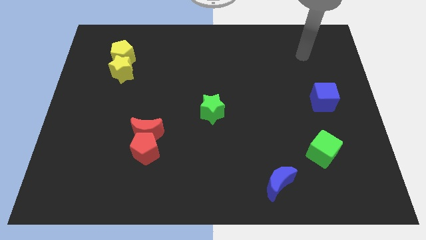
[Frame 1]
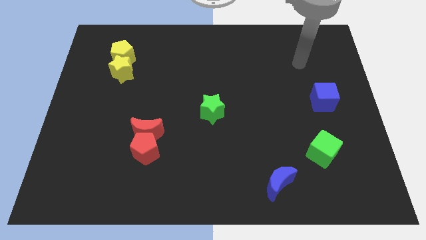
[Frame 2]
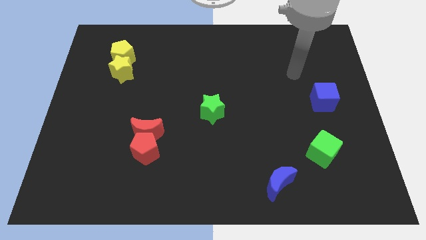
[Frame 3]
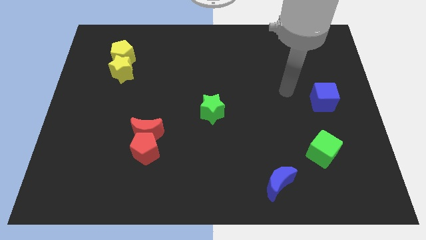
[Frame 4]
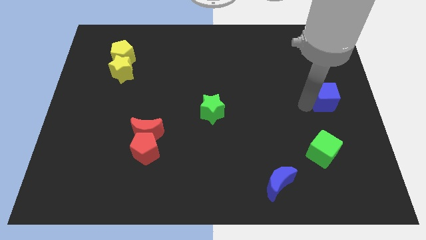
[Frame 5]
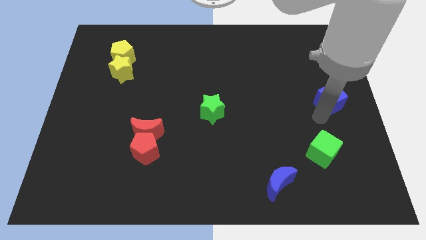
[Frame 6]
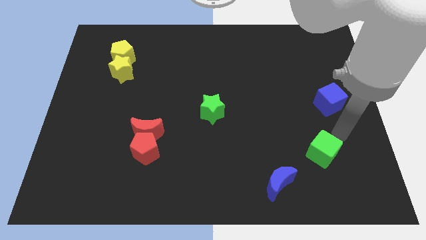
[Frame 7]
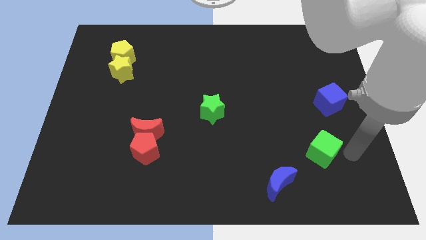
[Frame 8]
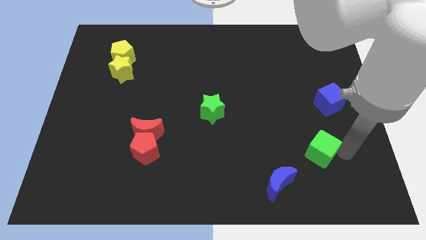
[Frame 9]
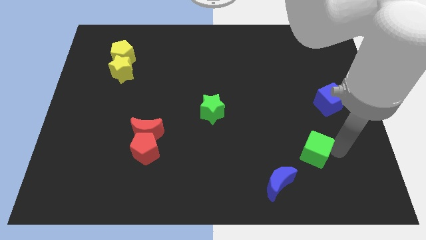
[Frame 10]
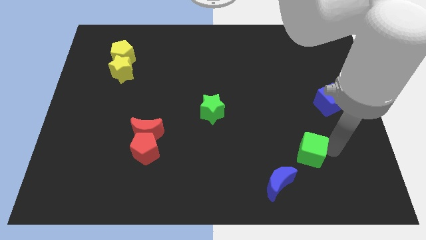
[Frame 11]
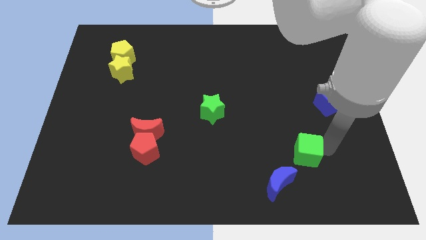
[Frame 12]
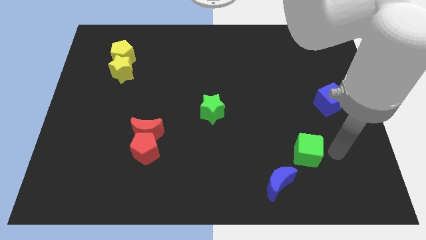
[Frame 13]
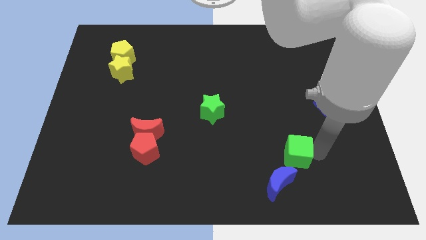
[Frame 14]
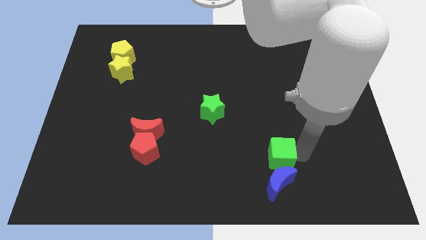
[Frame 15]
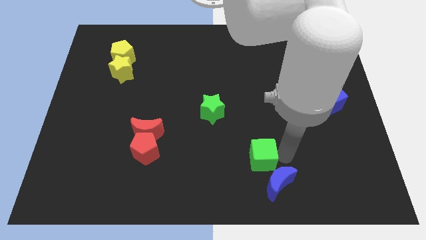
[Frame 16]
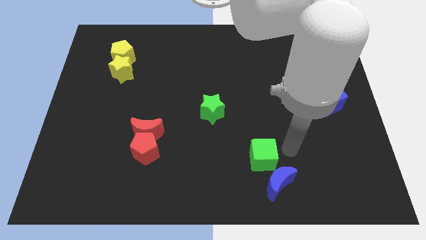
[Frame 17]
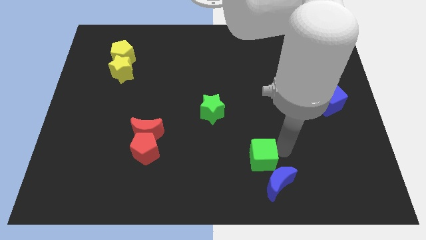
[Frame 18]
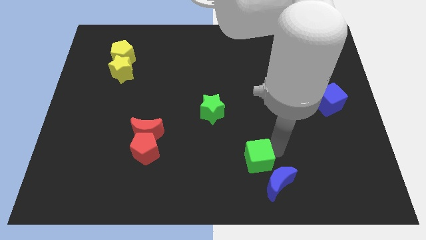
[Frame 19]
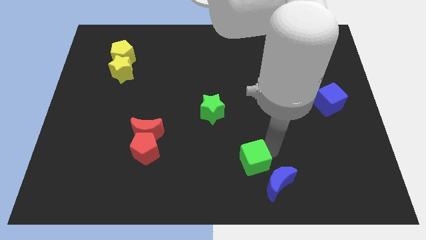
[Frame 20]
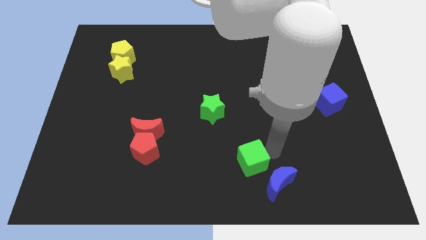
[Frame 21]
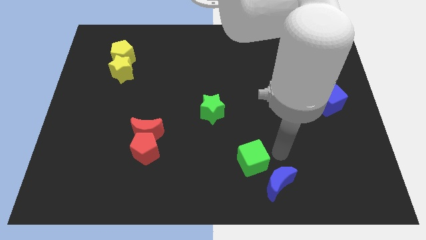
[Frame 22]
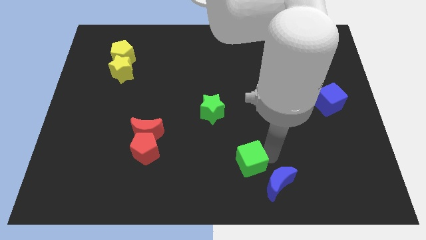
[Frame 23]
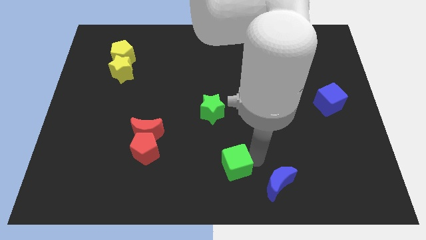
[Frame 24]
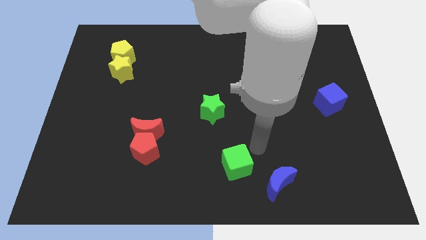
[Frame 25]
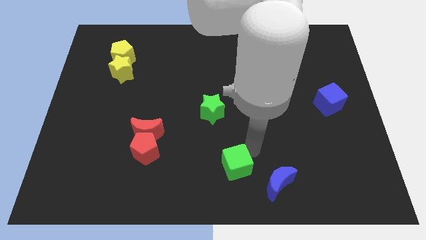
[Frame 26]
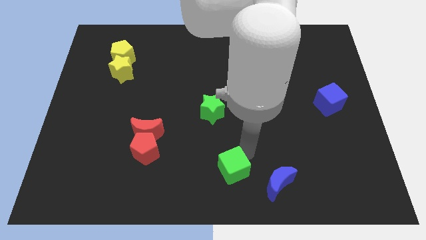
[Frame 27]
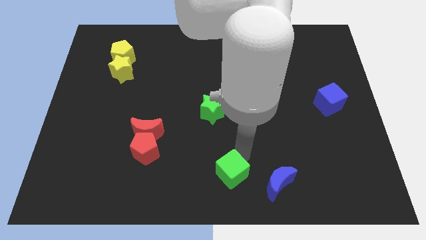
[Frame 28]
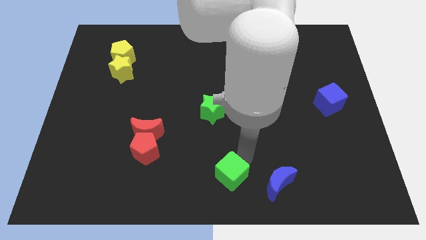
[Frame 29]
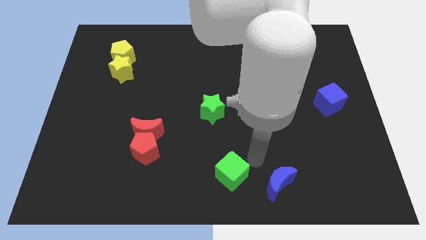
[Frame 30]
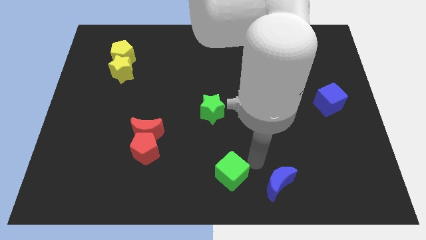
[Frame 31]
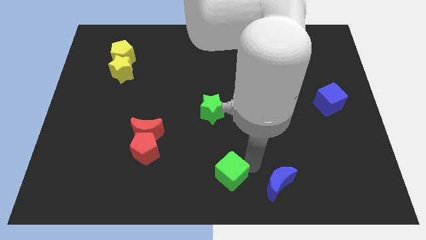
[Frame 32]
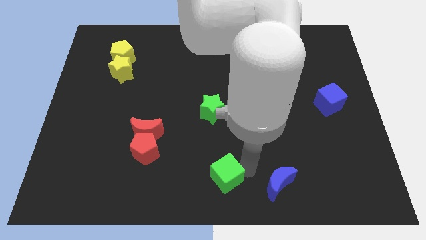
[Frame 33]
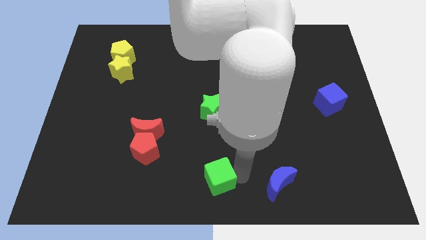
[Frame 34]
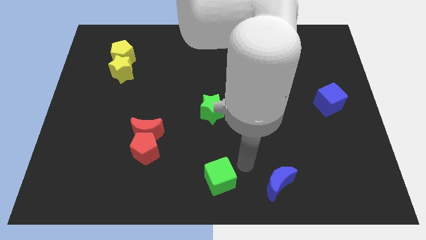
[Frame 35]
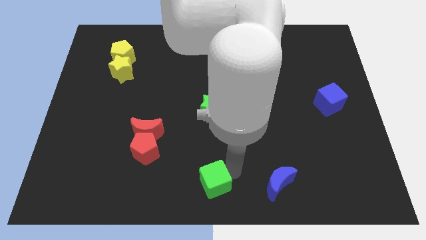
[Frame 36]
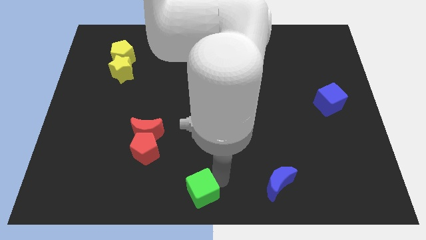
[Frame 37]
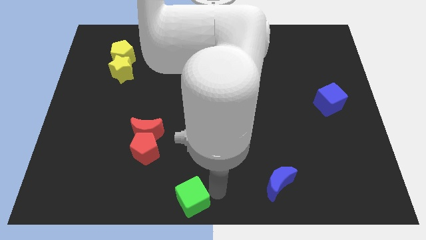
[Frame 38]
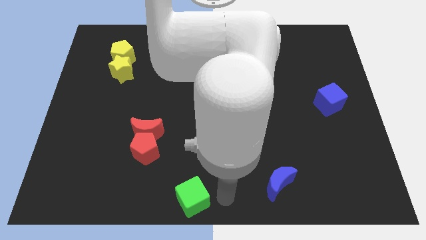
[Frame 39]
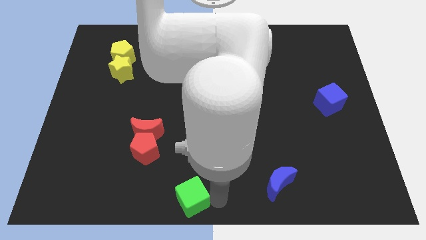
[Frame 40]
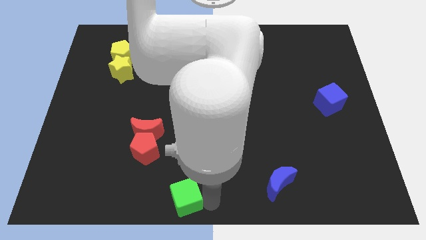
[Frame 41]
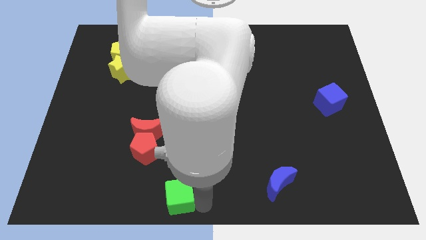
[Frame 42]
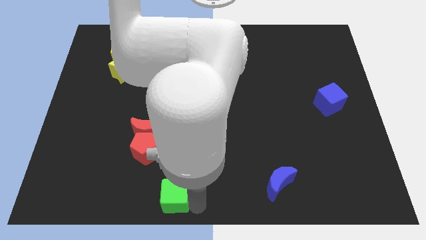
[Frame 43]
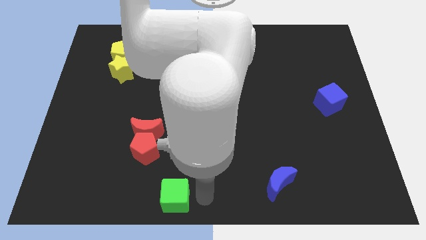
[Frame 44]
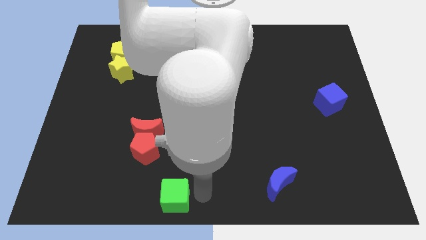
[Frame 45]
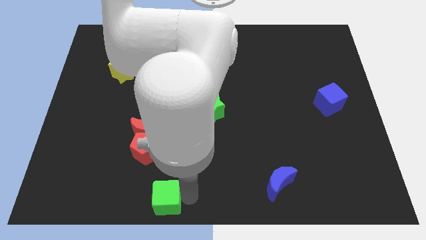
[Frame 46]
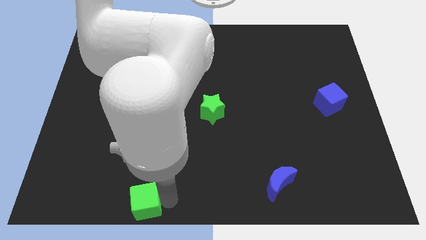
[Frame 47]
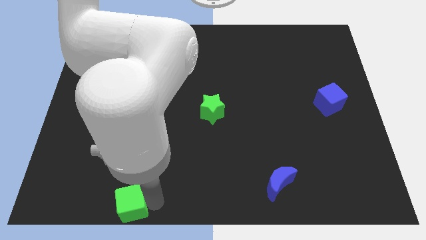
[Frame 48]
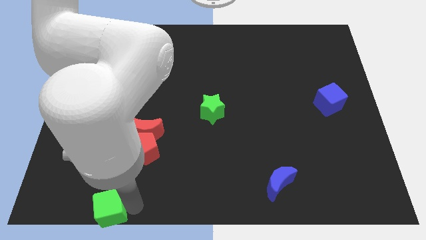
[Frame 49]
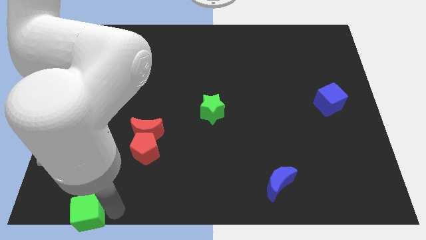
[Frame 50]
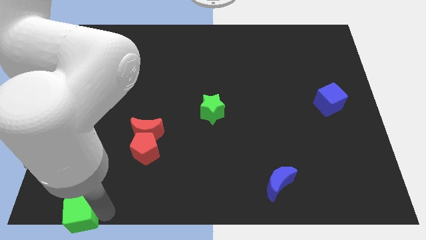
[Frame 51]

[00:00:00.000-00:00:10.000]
push the green cube to the lower left corner

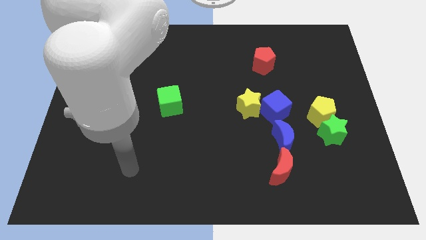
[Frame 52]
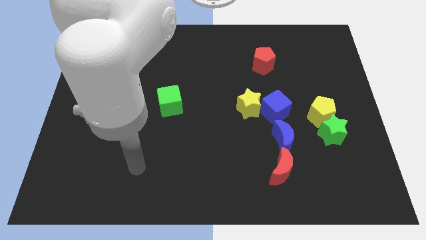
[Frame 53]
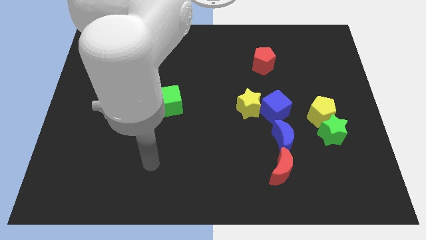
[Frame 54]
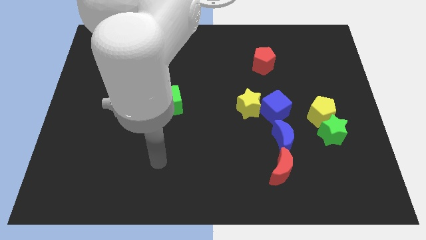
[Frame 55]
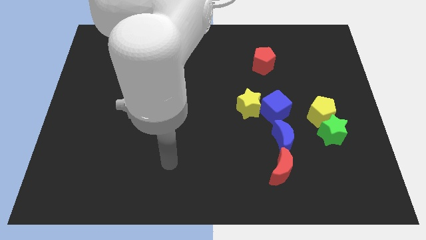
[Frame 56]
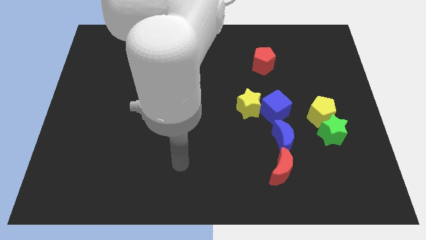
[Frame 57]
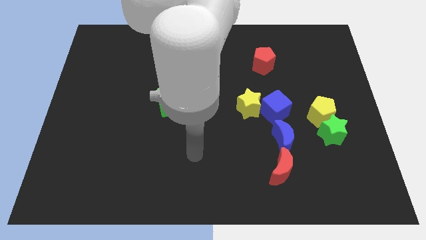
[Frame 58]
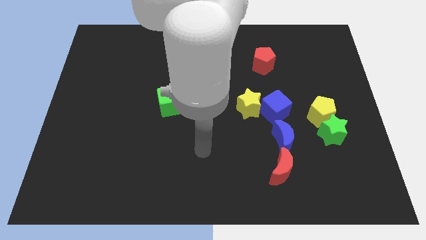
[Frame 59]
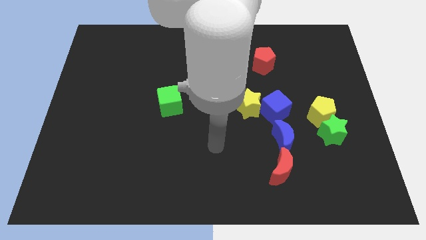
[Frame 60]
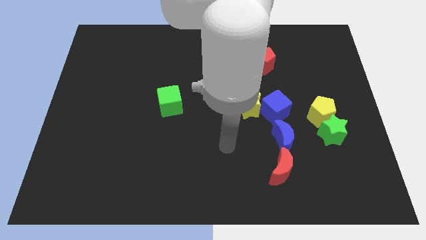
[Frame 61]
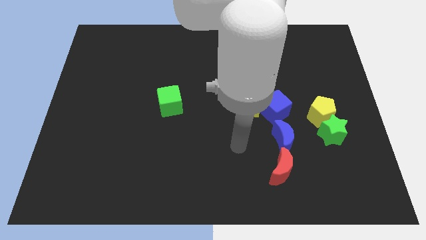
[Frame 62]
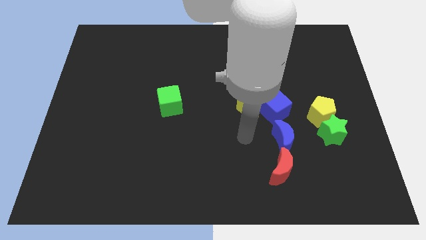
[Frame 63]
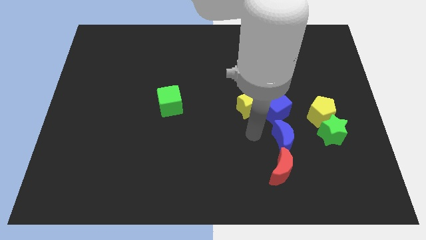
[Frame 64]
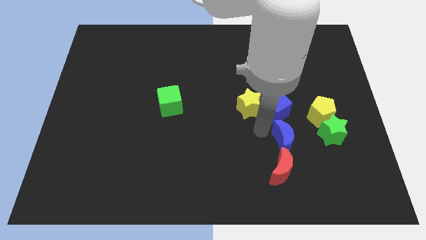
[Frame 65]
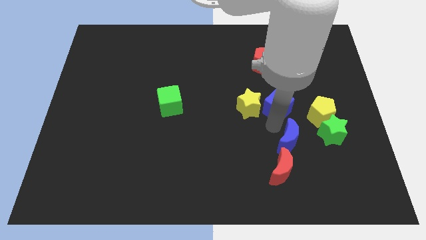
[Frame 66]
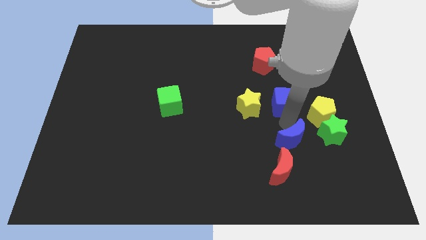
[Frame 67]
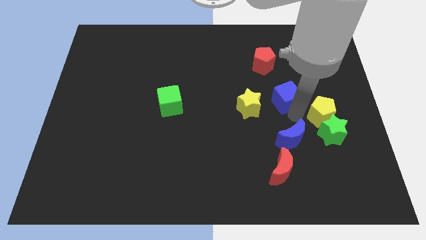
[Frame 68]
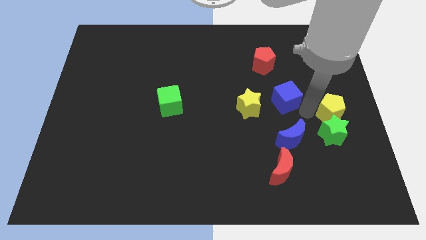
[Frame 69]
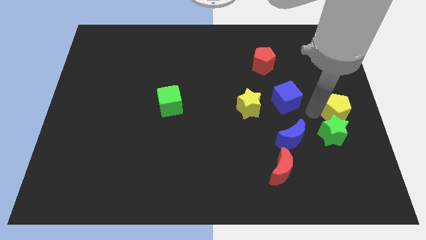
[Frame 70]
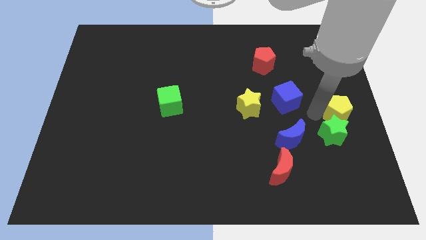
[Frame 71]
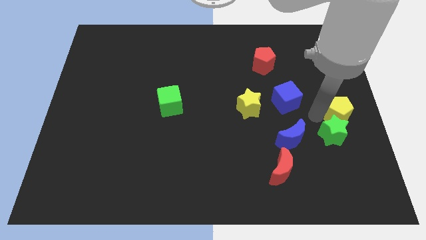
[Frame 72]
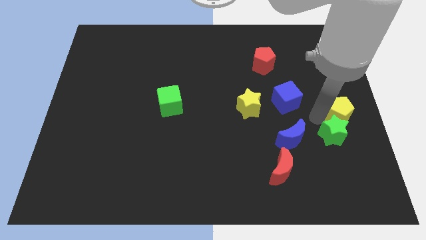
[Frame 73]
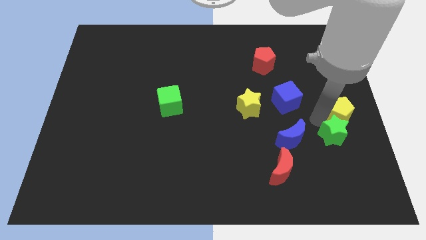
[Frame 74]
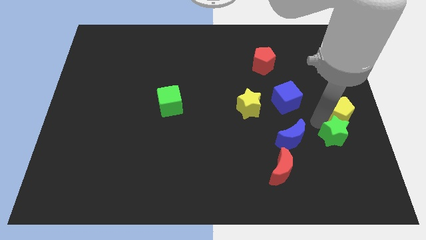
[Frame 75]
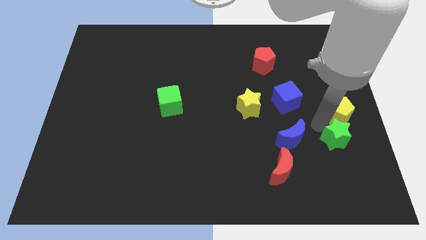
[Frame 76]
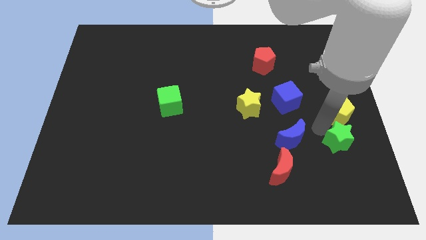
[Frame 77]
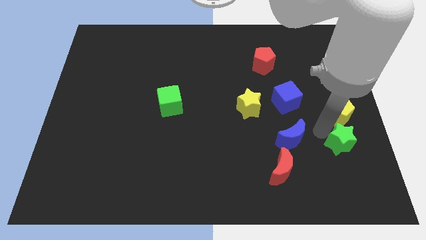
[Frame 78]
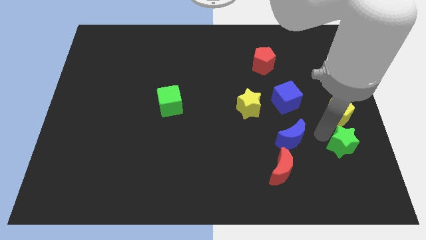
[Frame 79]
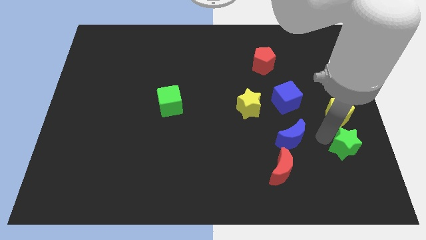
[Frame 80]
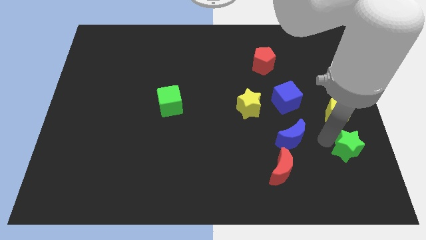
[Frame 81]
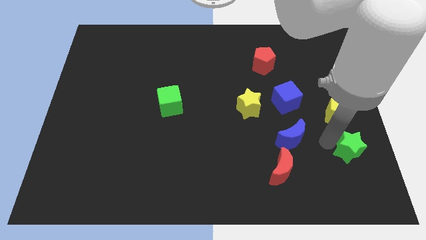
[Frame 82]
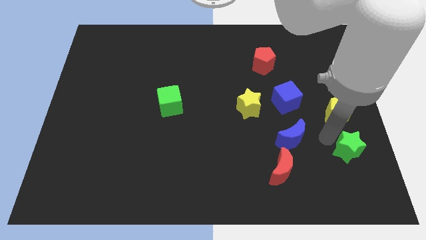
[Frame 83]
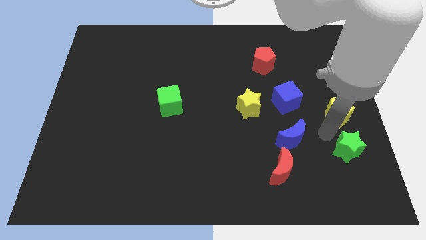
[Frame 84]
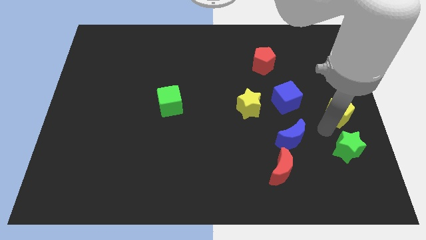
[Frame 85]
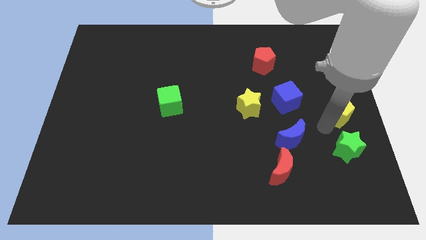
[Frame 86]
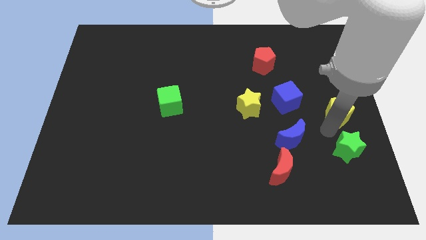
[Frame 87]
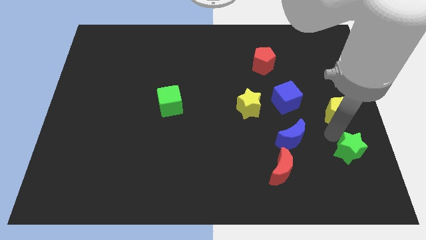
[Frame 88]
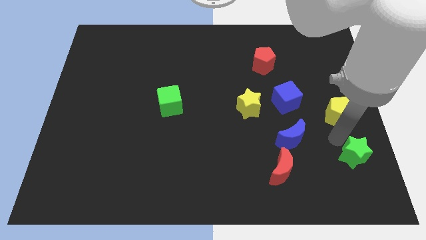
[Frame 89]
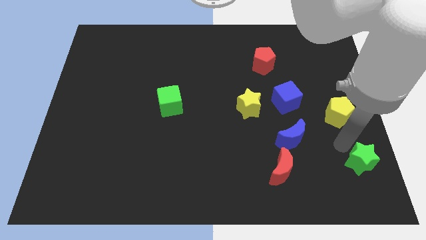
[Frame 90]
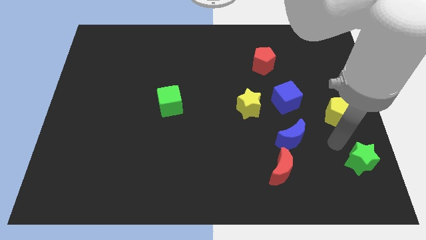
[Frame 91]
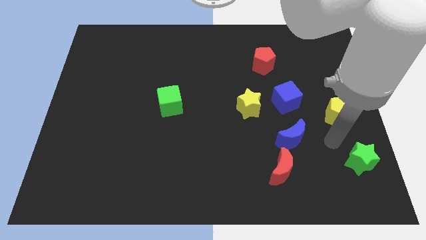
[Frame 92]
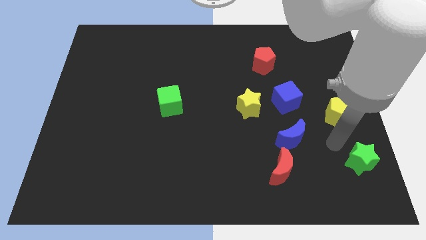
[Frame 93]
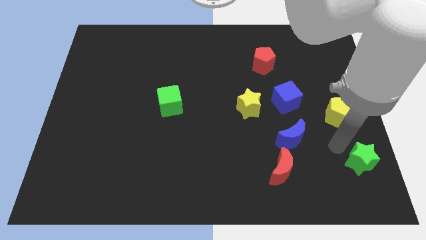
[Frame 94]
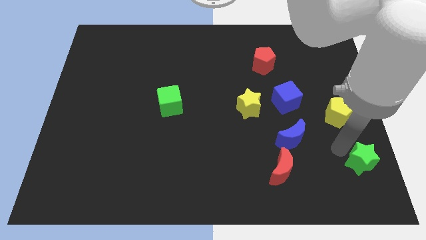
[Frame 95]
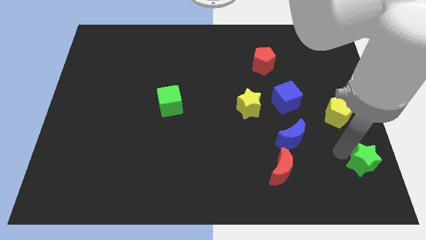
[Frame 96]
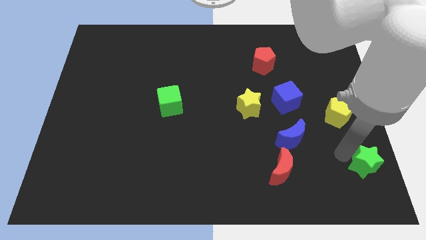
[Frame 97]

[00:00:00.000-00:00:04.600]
put the green star to the lower right corner
